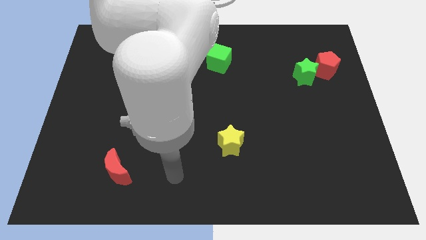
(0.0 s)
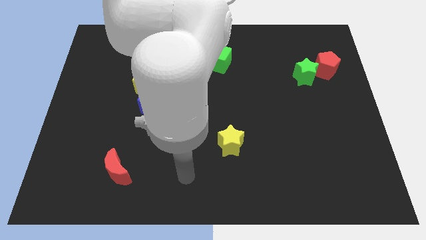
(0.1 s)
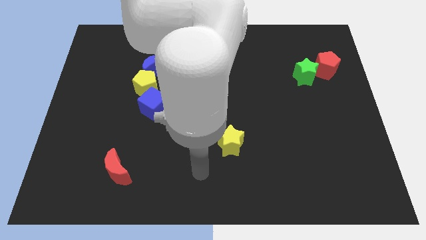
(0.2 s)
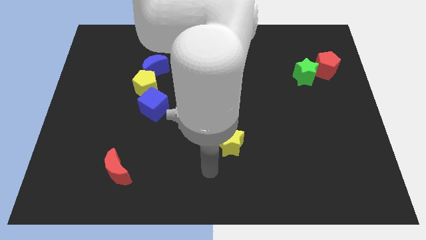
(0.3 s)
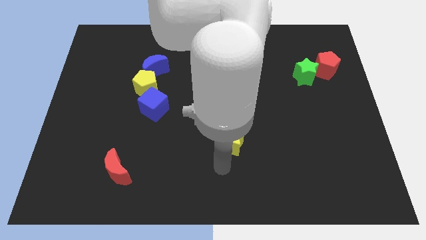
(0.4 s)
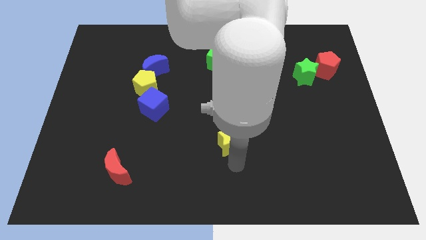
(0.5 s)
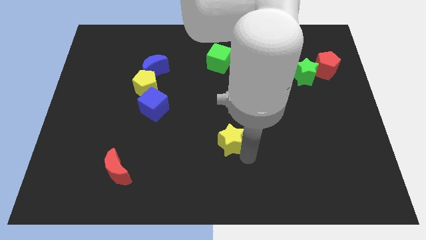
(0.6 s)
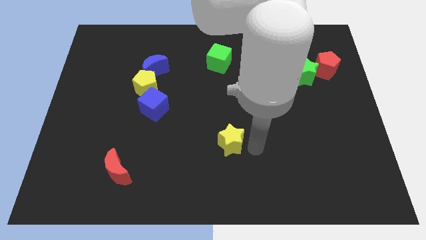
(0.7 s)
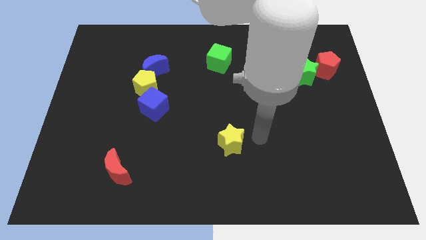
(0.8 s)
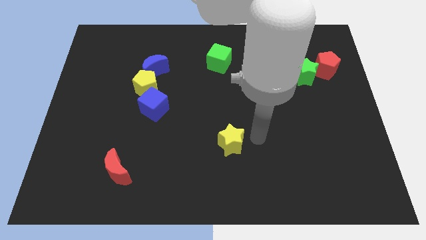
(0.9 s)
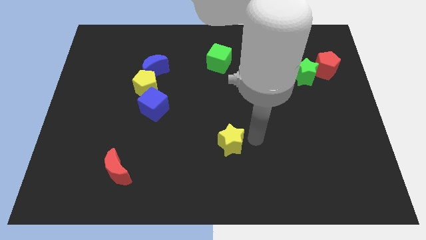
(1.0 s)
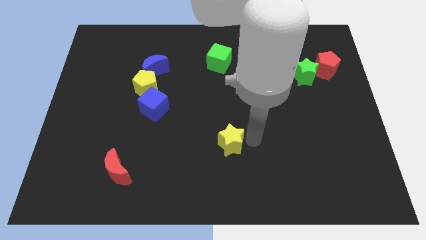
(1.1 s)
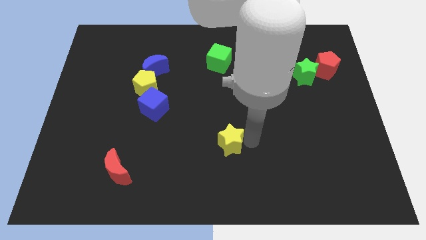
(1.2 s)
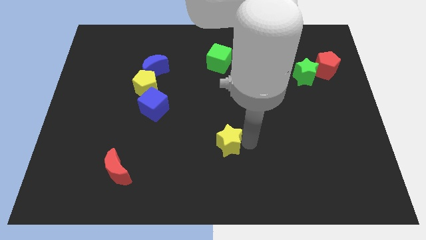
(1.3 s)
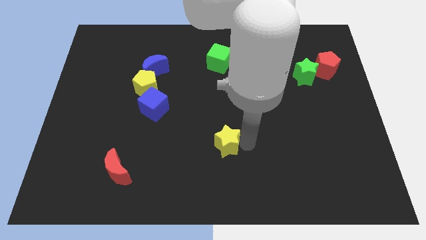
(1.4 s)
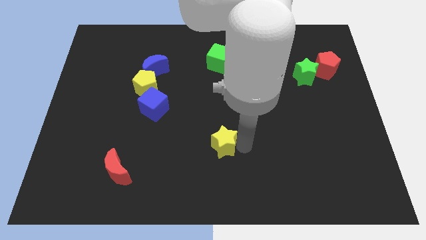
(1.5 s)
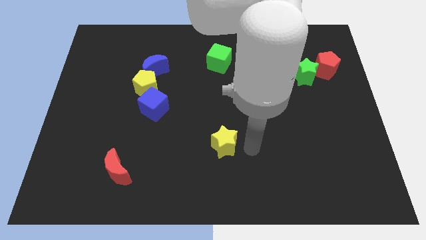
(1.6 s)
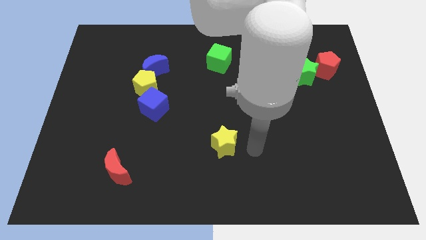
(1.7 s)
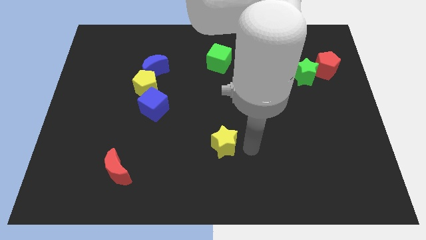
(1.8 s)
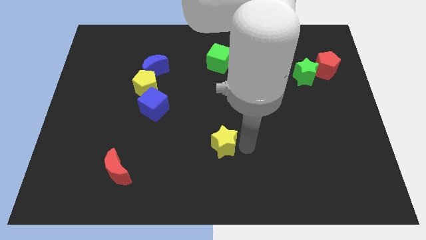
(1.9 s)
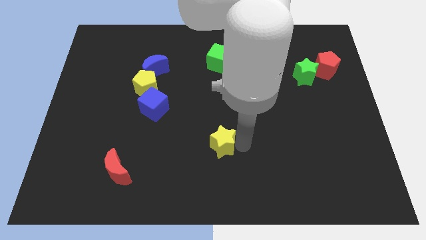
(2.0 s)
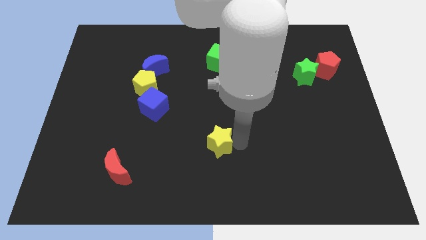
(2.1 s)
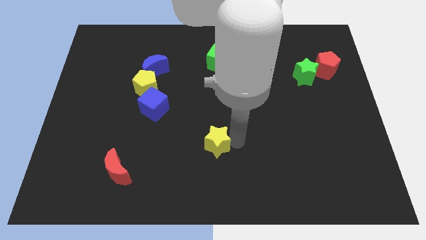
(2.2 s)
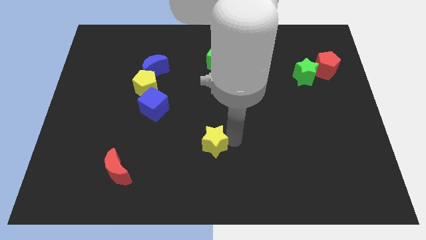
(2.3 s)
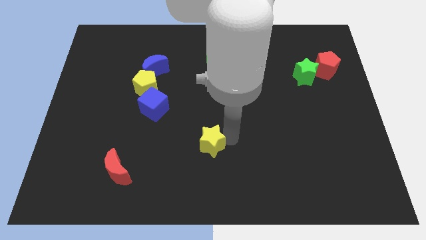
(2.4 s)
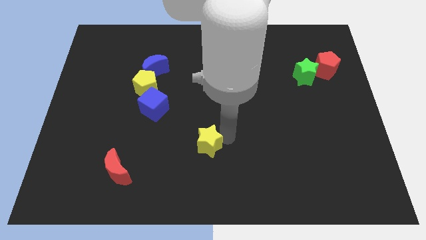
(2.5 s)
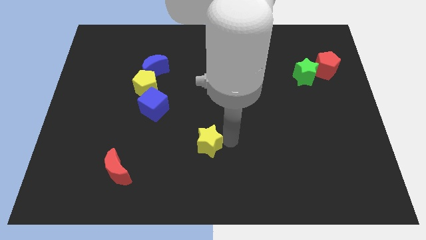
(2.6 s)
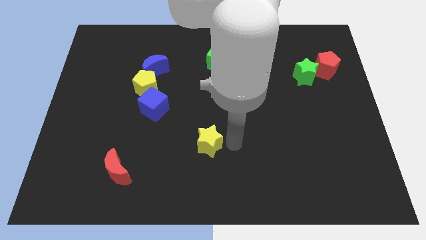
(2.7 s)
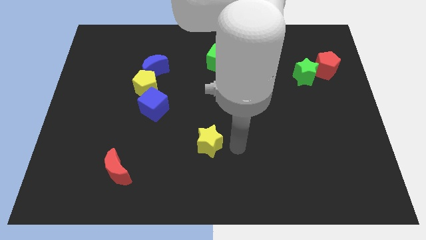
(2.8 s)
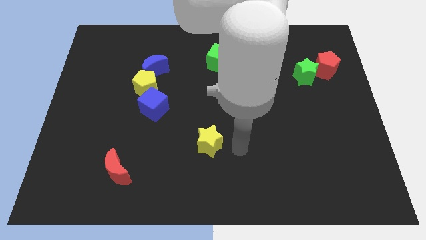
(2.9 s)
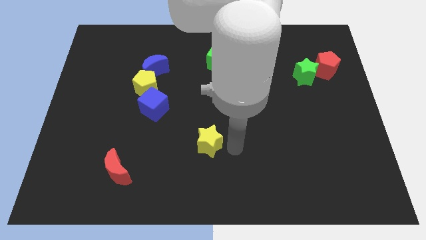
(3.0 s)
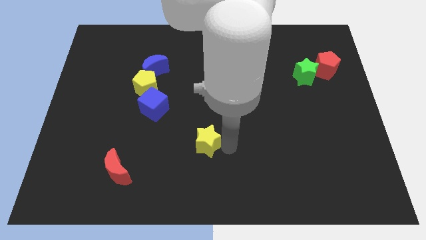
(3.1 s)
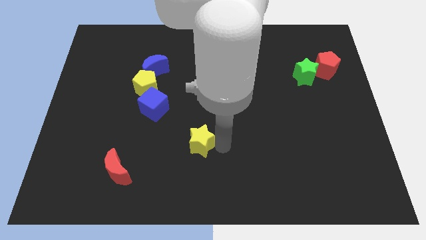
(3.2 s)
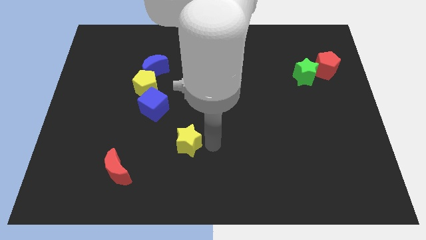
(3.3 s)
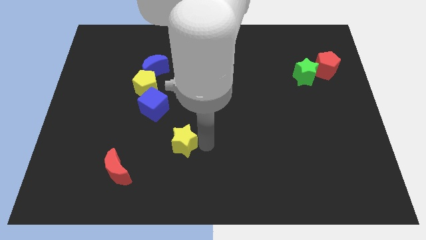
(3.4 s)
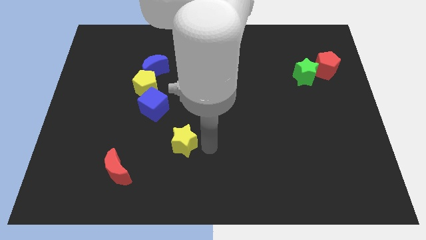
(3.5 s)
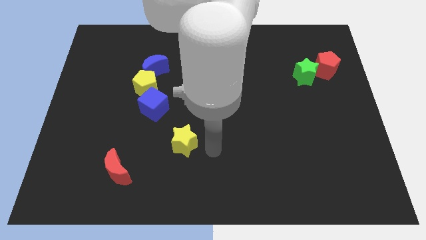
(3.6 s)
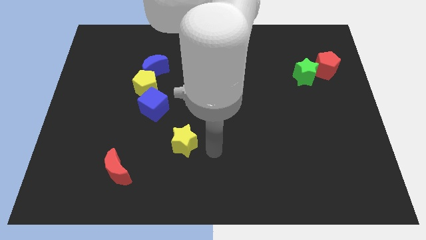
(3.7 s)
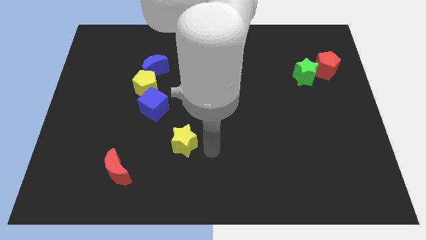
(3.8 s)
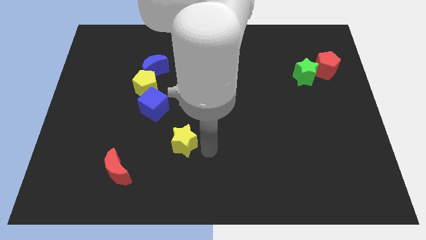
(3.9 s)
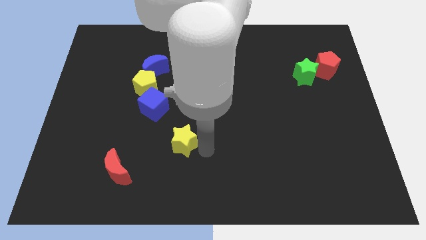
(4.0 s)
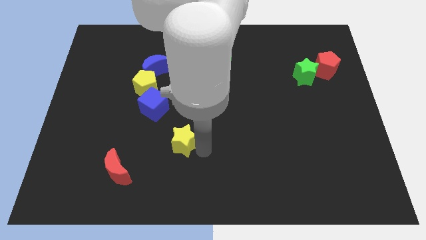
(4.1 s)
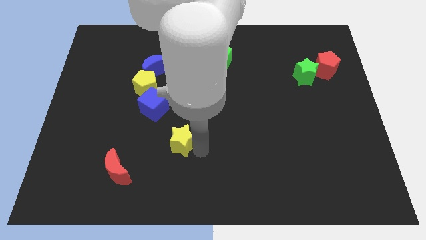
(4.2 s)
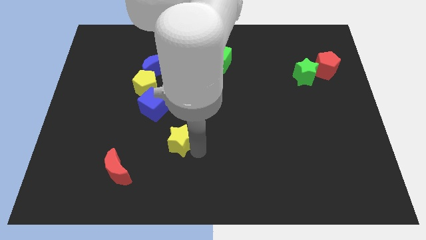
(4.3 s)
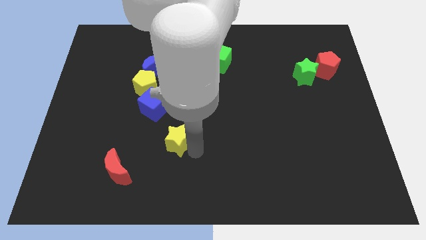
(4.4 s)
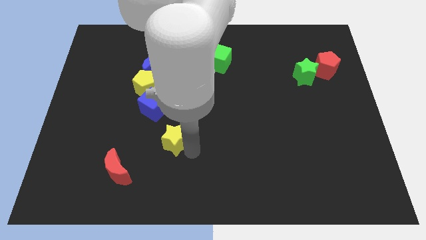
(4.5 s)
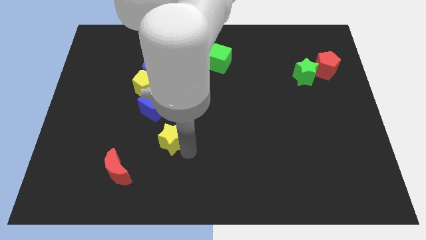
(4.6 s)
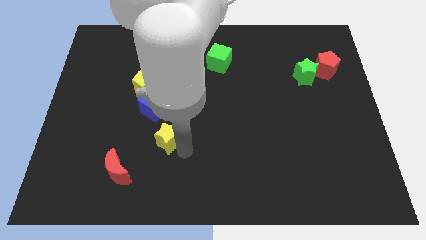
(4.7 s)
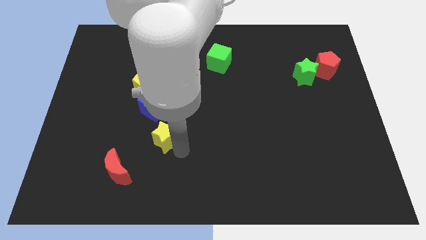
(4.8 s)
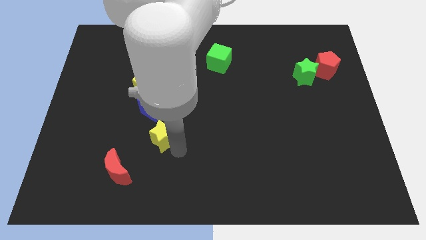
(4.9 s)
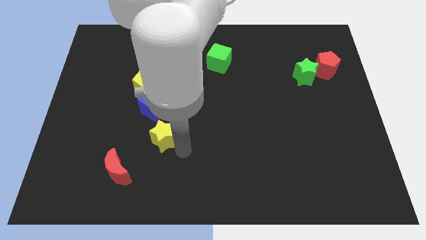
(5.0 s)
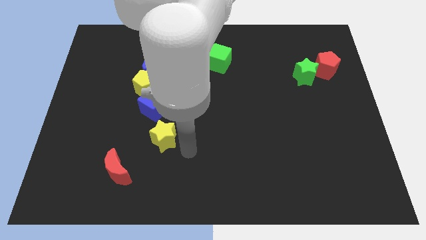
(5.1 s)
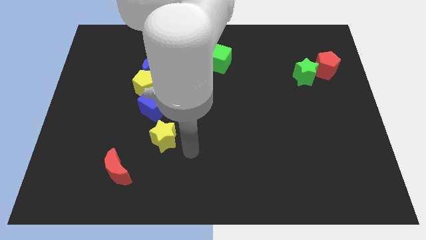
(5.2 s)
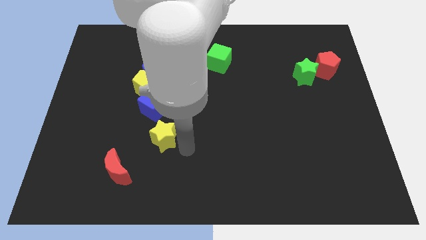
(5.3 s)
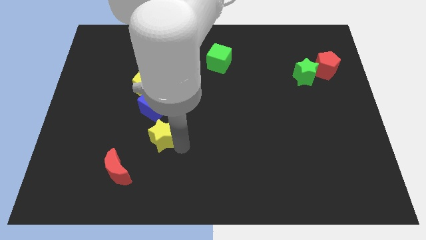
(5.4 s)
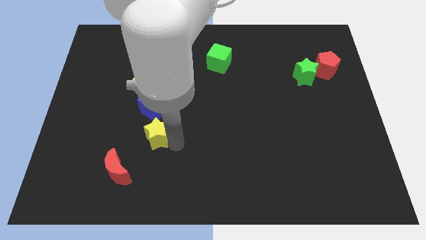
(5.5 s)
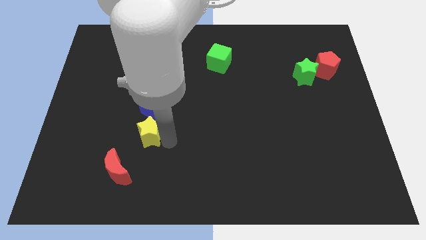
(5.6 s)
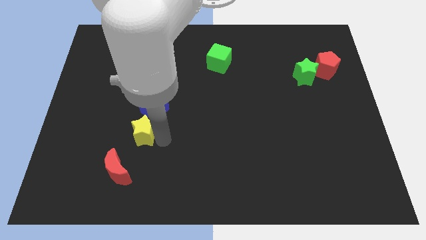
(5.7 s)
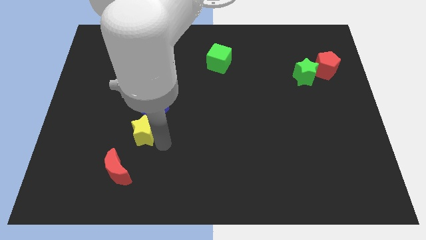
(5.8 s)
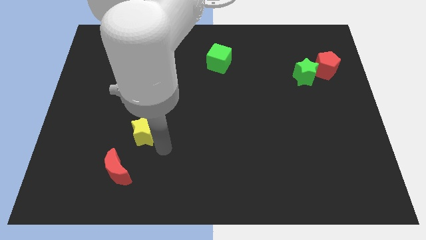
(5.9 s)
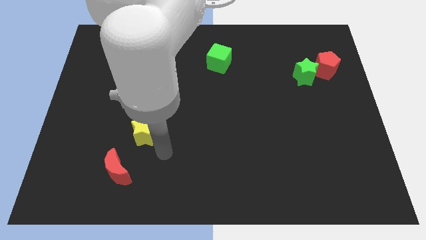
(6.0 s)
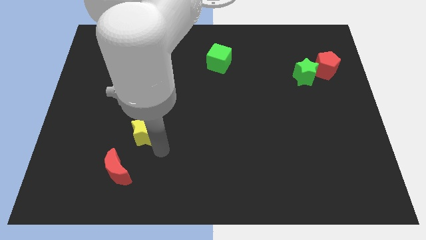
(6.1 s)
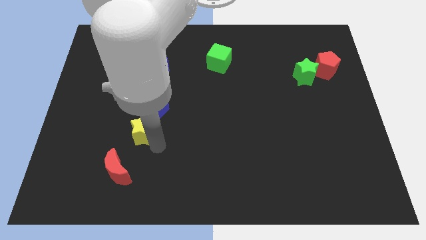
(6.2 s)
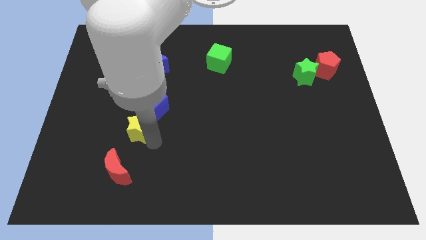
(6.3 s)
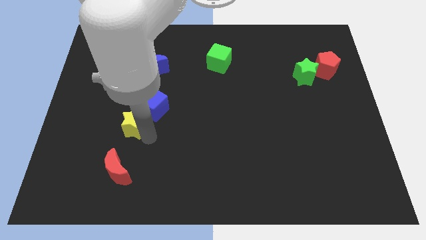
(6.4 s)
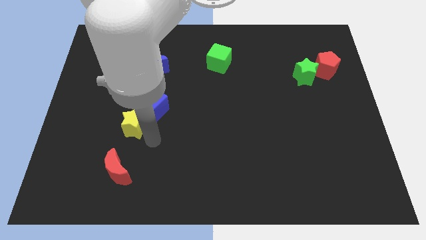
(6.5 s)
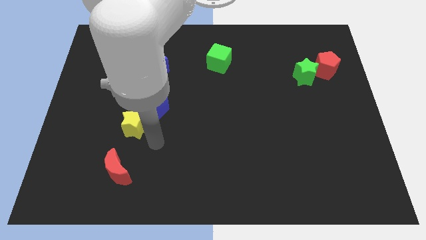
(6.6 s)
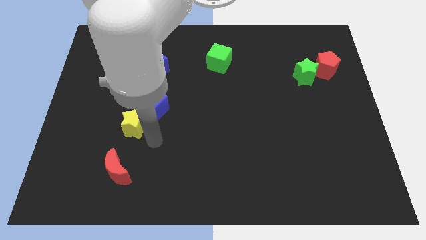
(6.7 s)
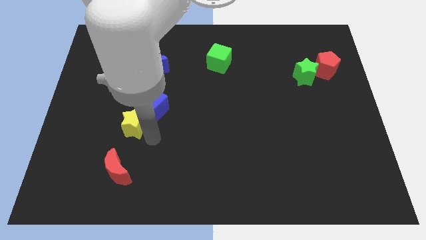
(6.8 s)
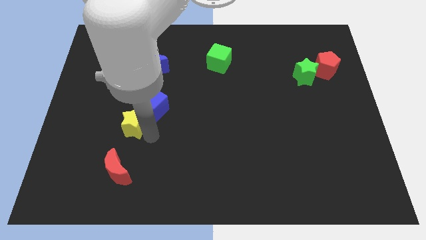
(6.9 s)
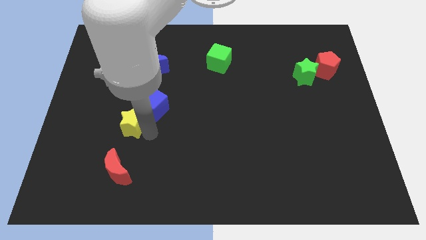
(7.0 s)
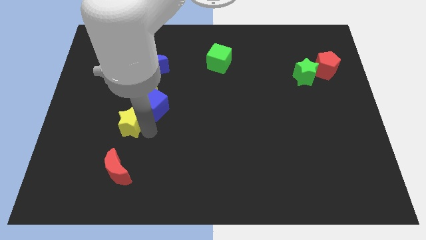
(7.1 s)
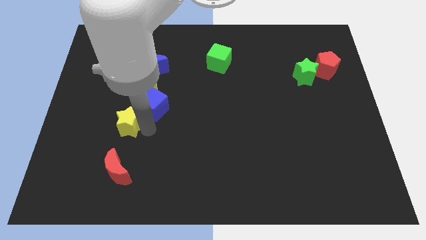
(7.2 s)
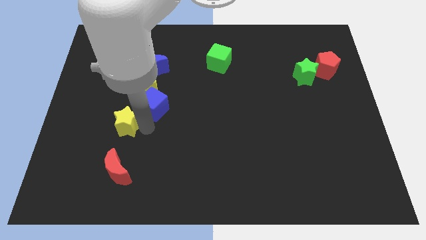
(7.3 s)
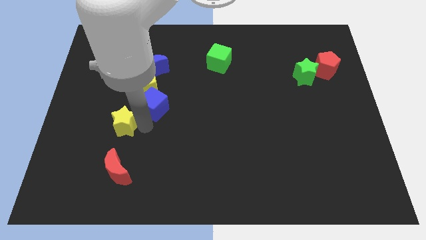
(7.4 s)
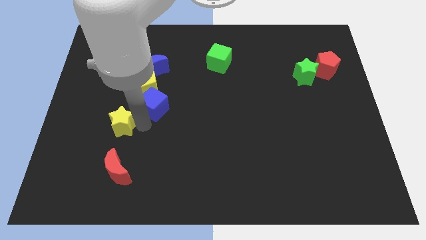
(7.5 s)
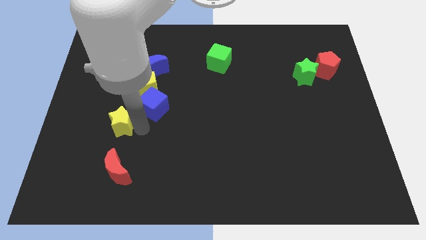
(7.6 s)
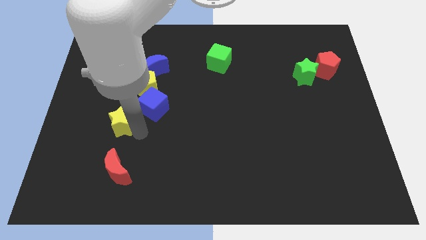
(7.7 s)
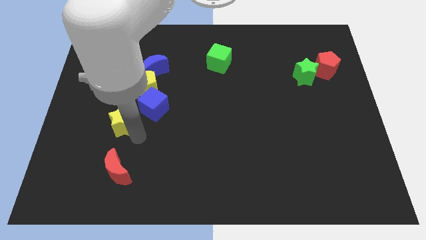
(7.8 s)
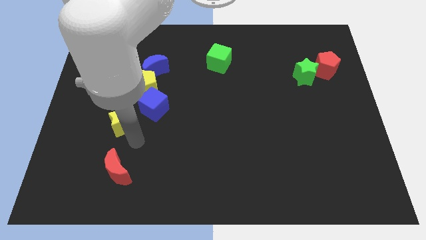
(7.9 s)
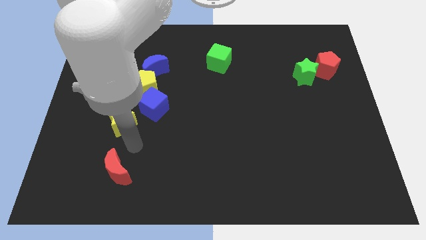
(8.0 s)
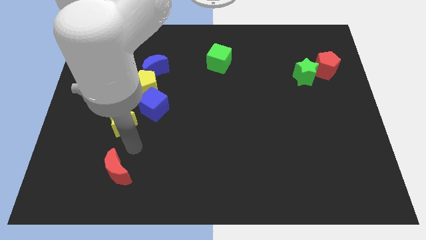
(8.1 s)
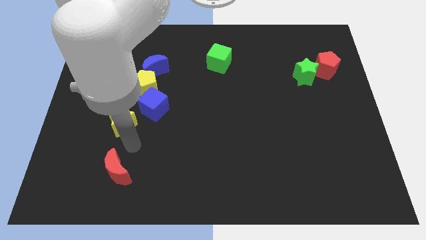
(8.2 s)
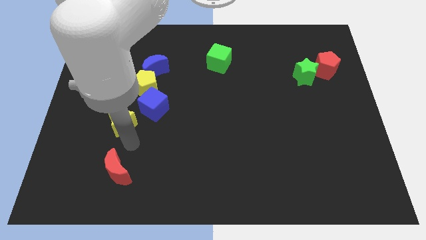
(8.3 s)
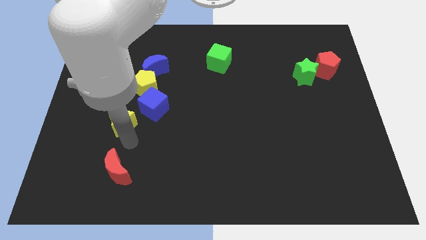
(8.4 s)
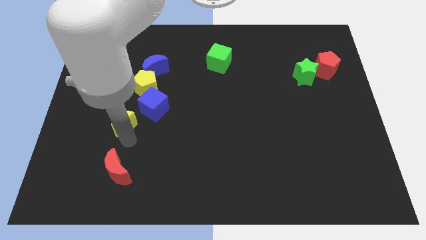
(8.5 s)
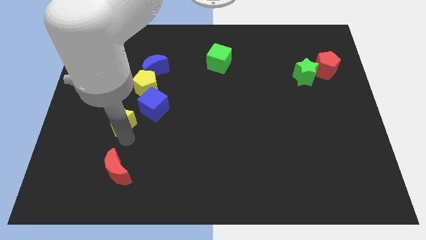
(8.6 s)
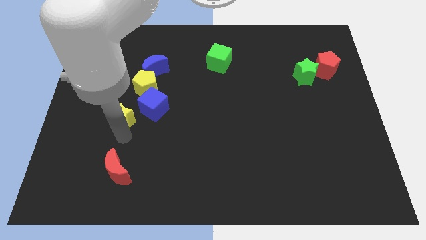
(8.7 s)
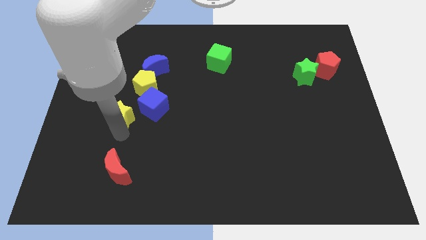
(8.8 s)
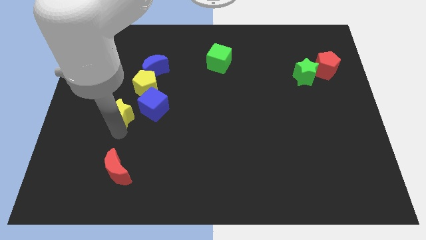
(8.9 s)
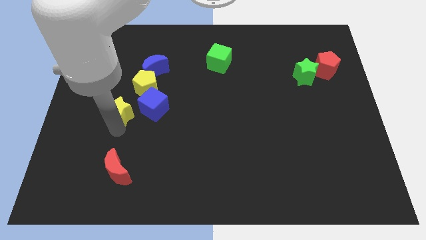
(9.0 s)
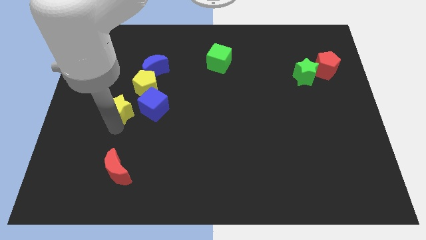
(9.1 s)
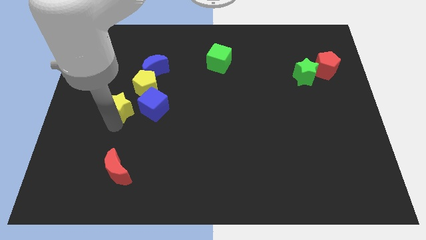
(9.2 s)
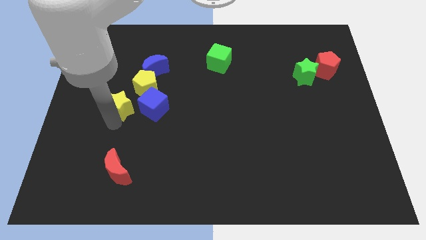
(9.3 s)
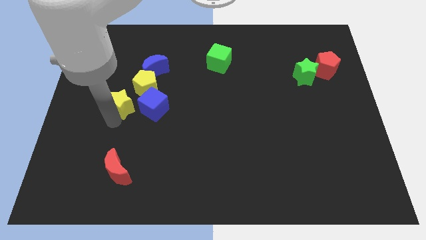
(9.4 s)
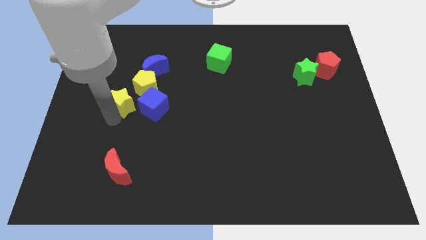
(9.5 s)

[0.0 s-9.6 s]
slide the yellow star up and left
